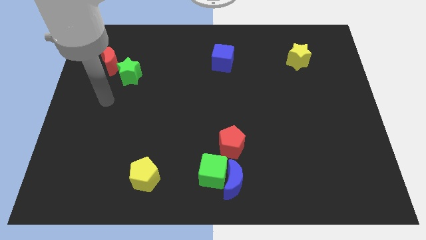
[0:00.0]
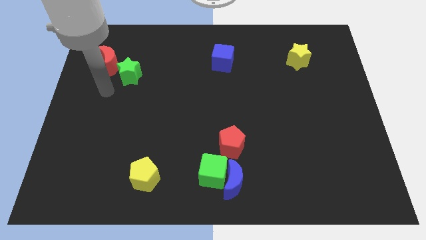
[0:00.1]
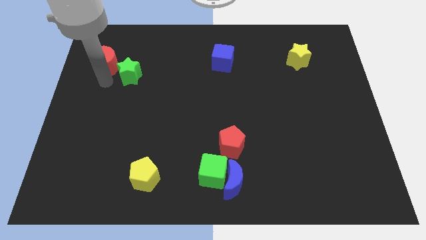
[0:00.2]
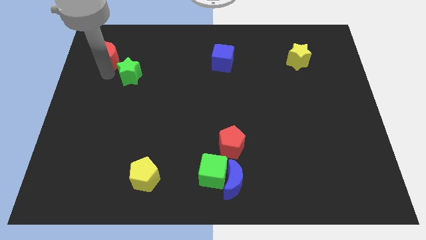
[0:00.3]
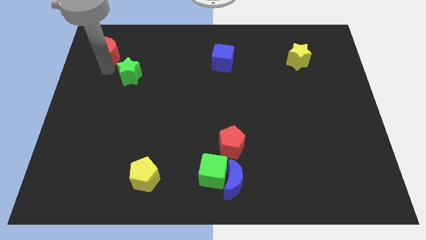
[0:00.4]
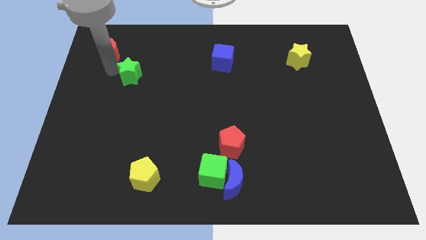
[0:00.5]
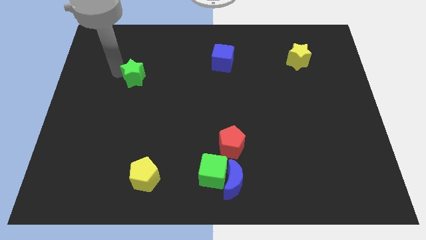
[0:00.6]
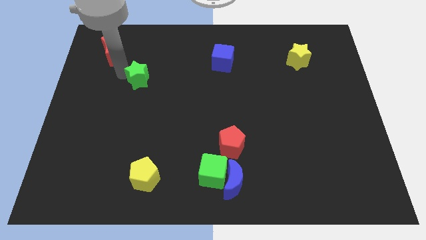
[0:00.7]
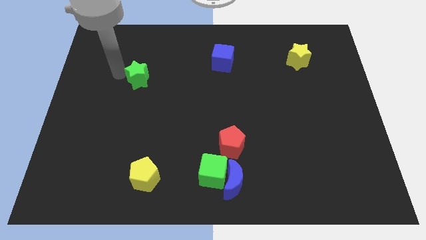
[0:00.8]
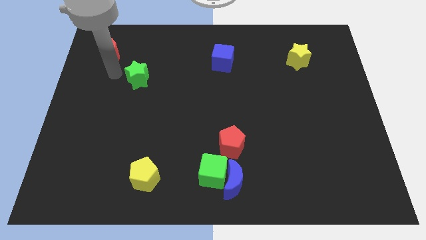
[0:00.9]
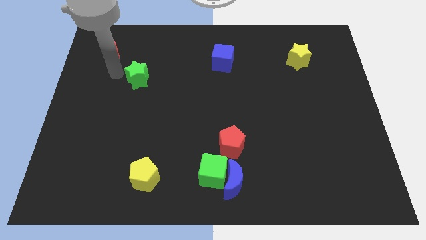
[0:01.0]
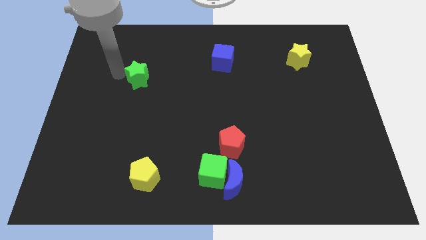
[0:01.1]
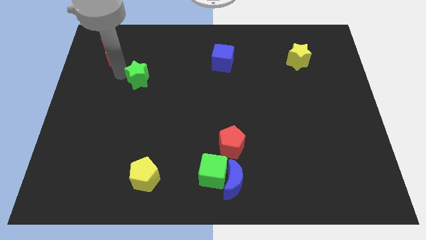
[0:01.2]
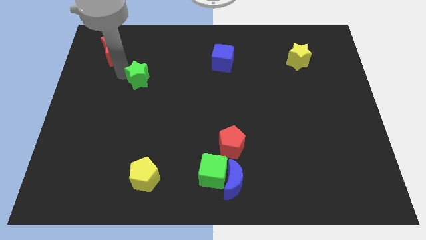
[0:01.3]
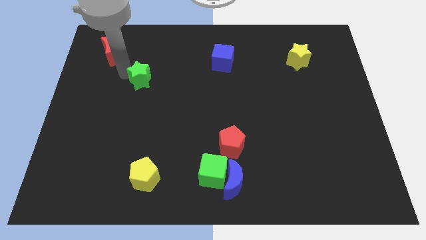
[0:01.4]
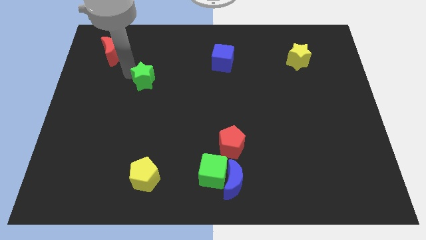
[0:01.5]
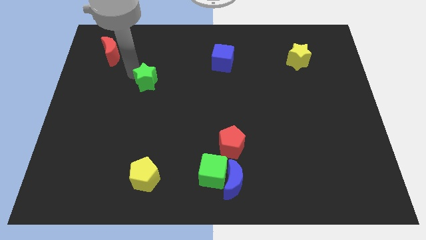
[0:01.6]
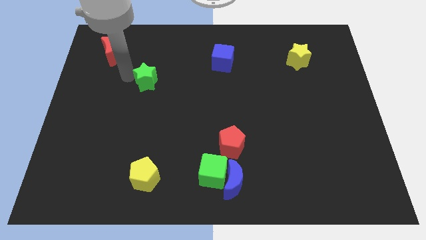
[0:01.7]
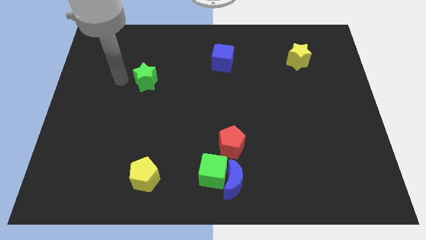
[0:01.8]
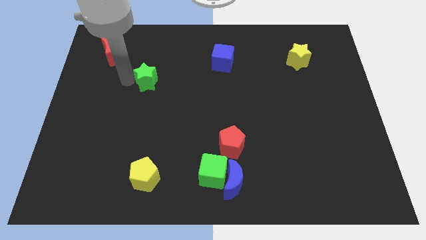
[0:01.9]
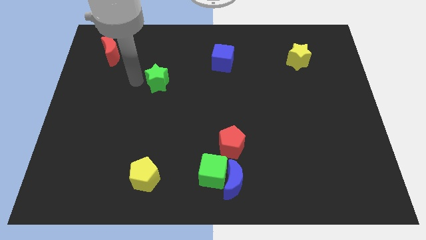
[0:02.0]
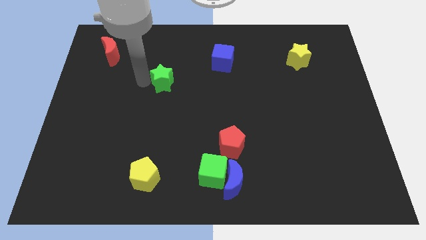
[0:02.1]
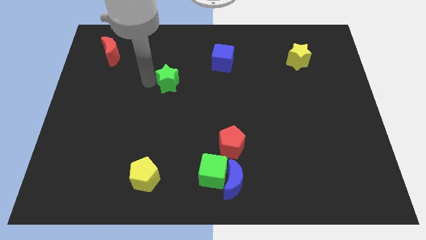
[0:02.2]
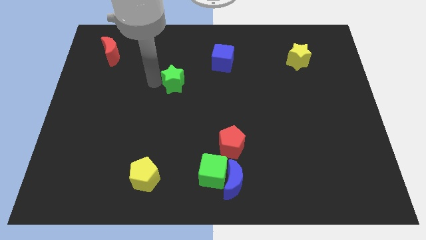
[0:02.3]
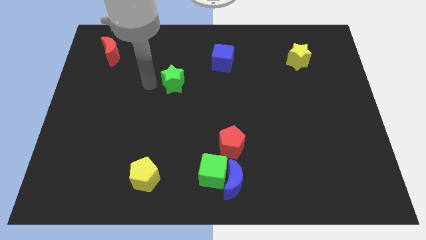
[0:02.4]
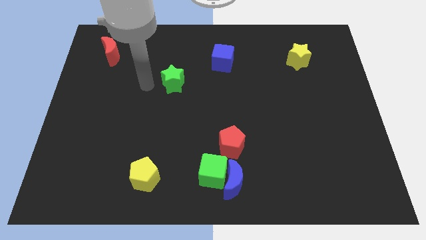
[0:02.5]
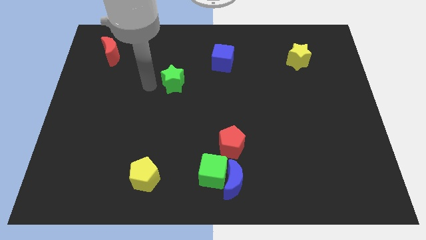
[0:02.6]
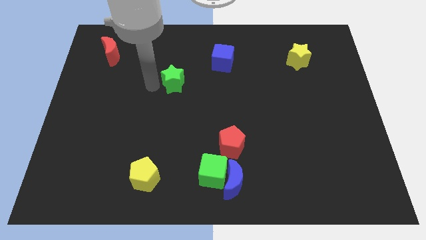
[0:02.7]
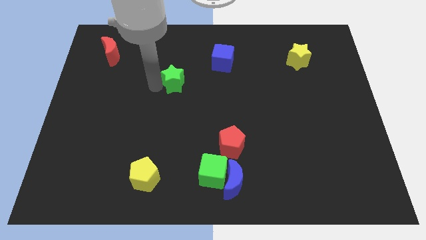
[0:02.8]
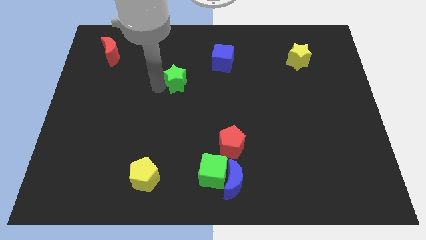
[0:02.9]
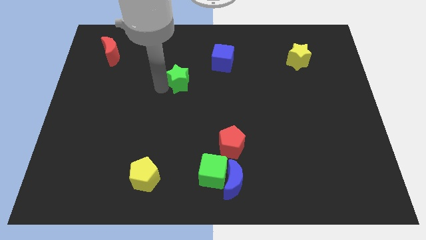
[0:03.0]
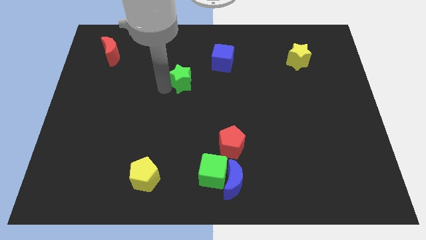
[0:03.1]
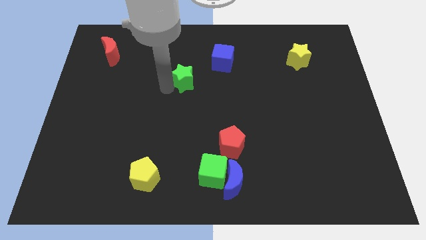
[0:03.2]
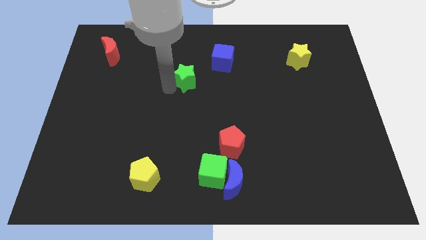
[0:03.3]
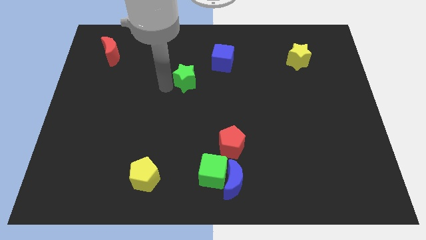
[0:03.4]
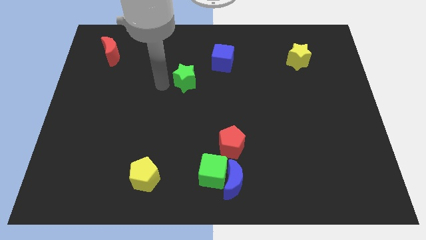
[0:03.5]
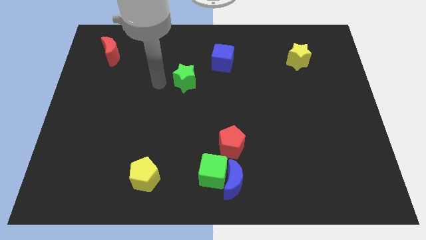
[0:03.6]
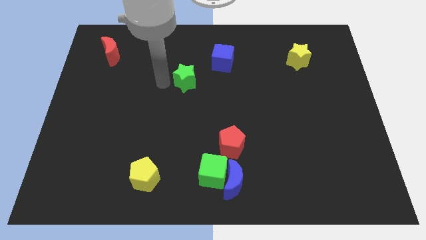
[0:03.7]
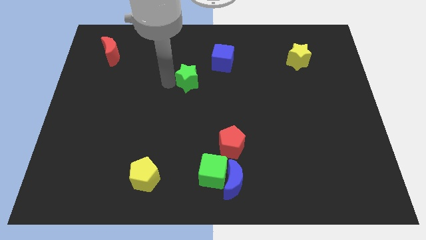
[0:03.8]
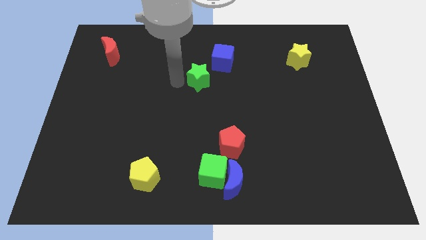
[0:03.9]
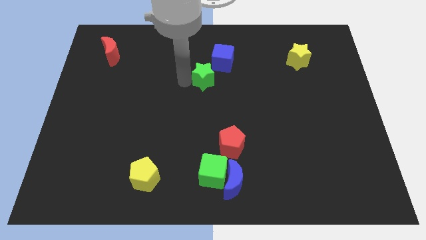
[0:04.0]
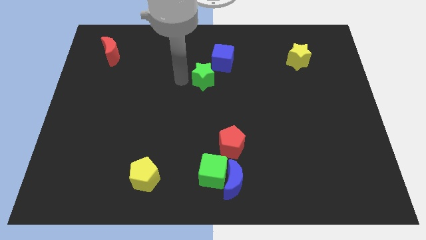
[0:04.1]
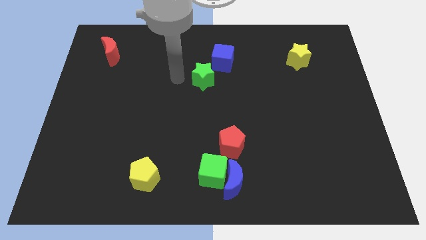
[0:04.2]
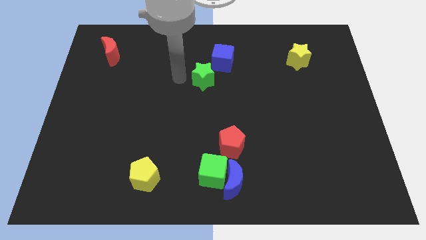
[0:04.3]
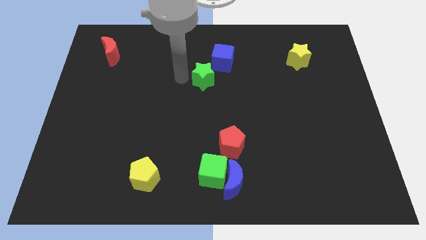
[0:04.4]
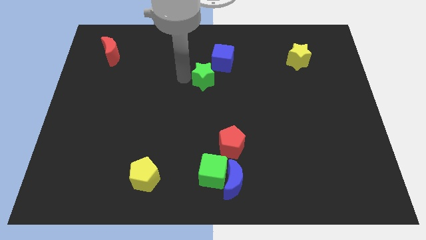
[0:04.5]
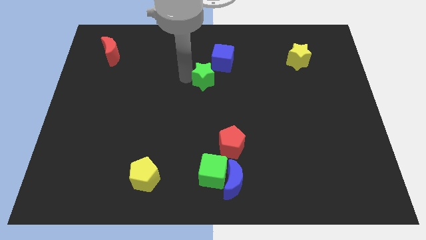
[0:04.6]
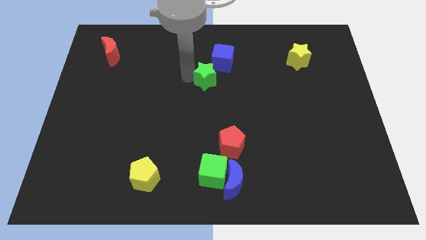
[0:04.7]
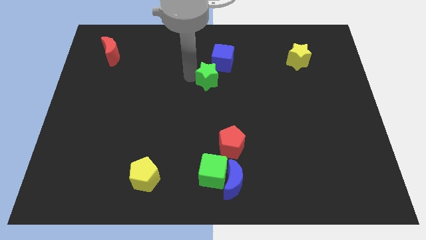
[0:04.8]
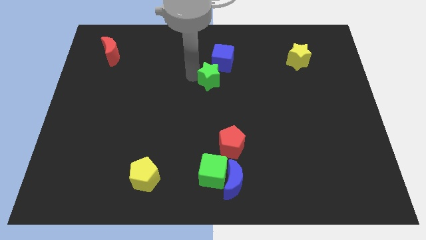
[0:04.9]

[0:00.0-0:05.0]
move the green star right

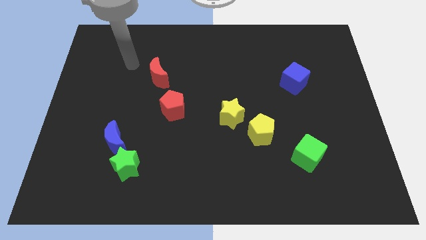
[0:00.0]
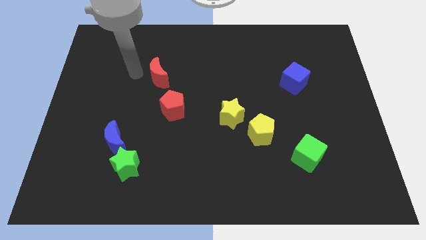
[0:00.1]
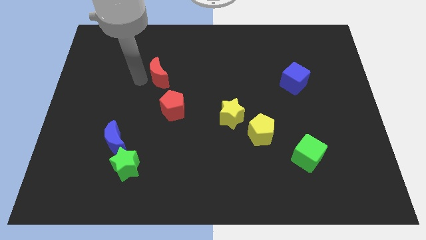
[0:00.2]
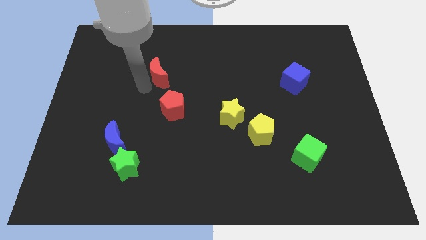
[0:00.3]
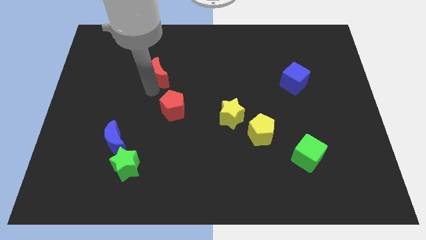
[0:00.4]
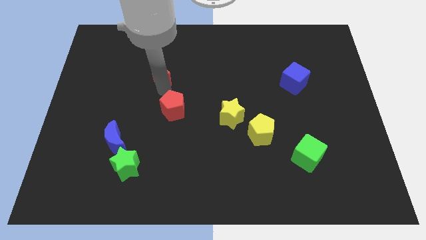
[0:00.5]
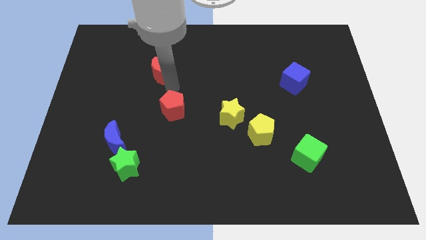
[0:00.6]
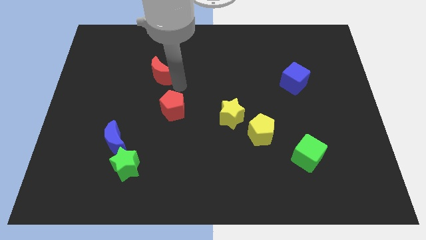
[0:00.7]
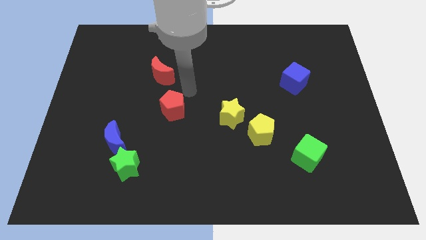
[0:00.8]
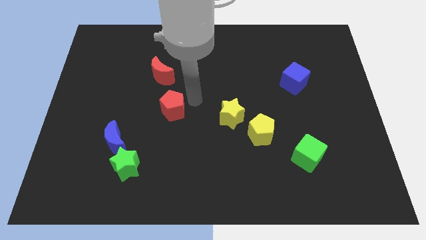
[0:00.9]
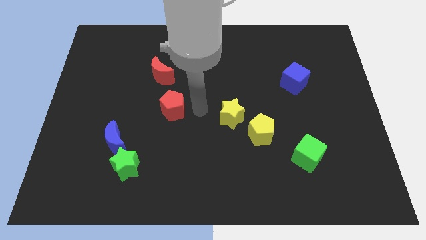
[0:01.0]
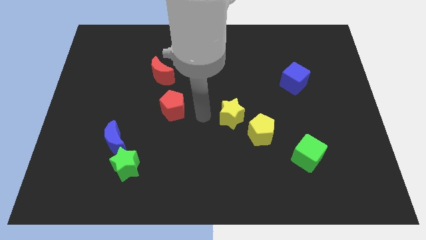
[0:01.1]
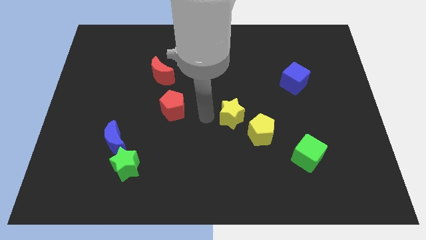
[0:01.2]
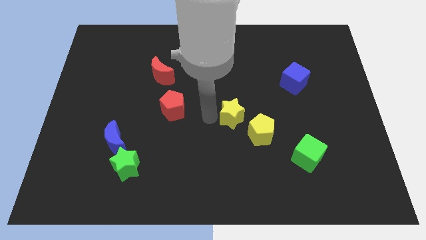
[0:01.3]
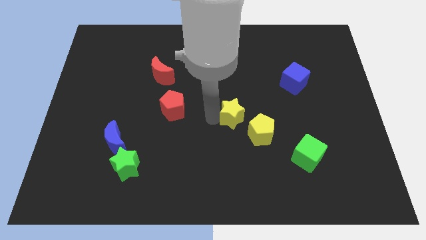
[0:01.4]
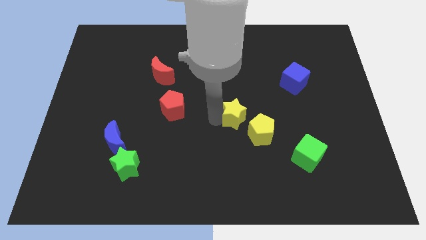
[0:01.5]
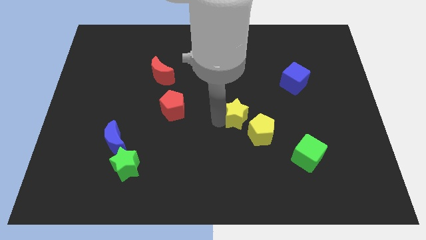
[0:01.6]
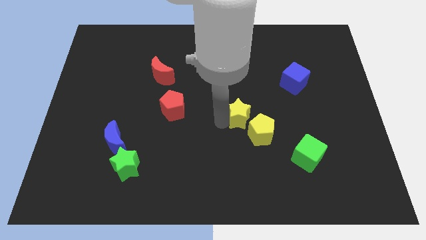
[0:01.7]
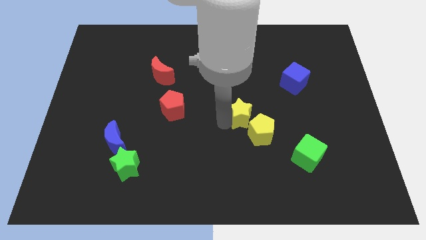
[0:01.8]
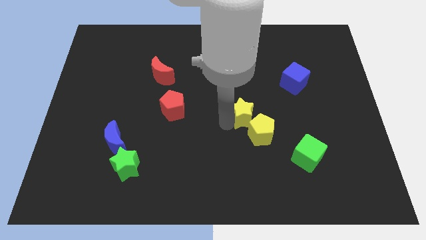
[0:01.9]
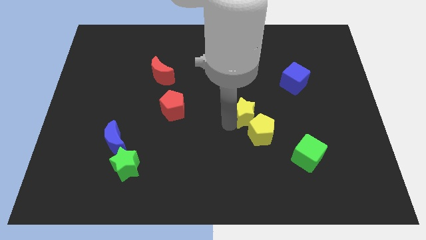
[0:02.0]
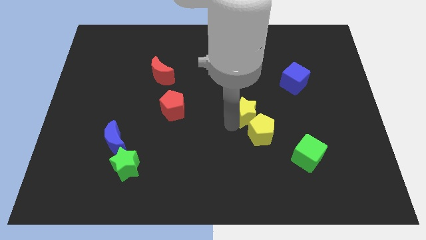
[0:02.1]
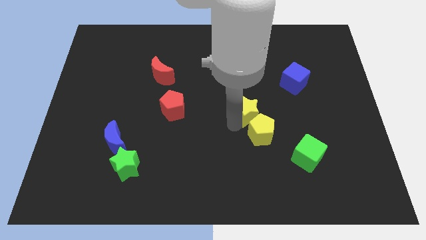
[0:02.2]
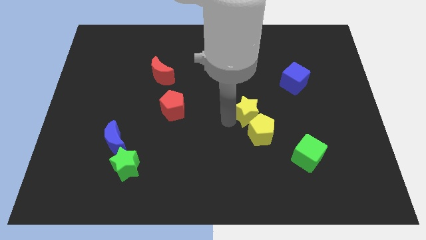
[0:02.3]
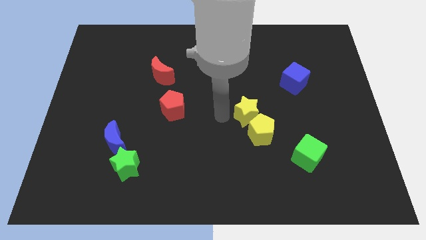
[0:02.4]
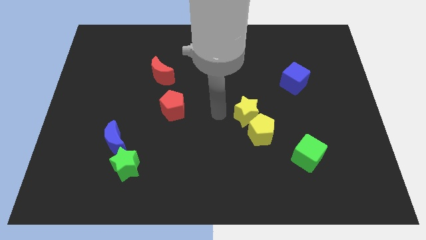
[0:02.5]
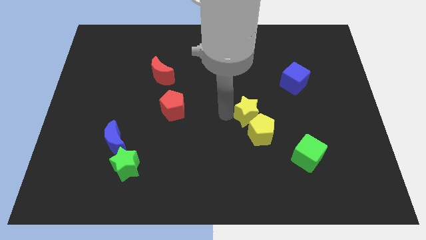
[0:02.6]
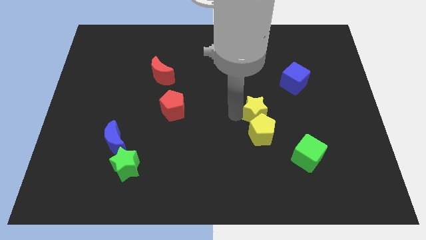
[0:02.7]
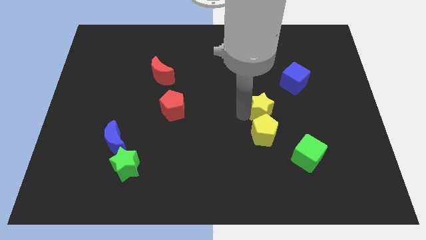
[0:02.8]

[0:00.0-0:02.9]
move the yellow star a little to the right
